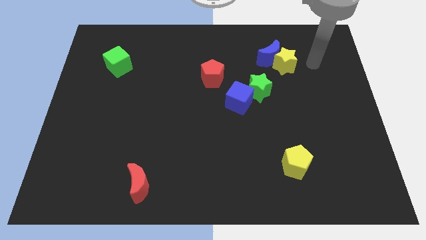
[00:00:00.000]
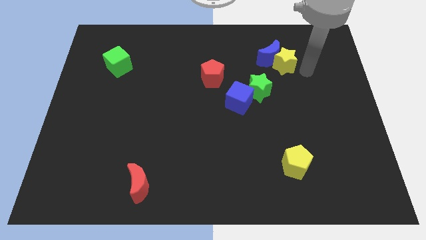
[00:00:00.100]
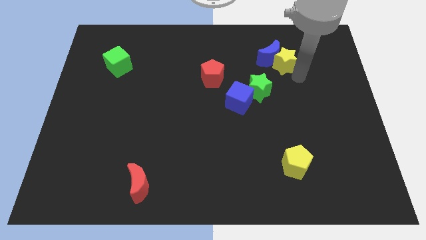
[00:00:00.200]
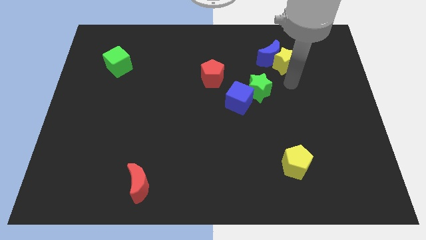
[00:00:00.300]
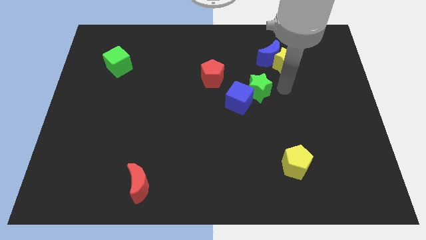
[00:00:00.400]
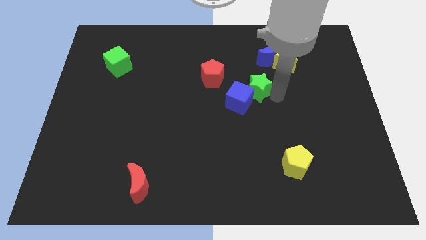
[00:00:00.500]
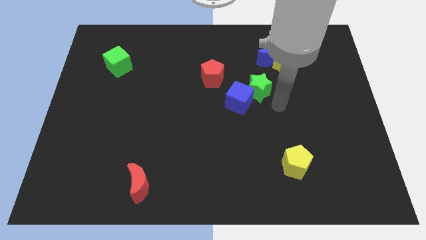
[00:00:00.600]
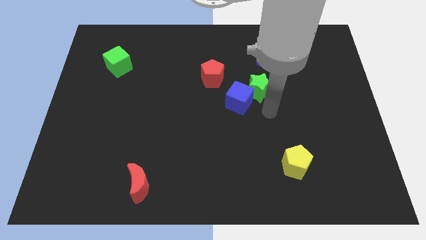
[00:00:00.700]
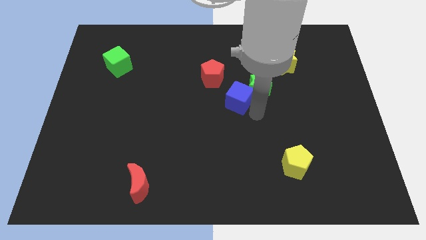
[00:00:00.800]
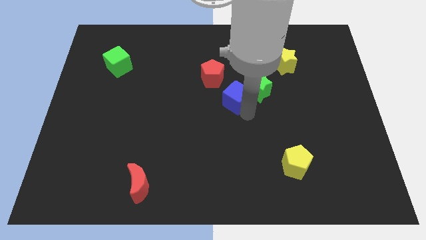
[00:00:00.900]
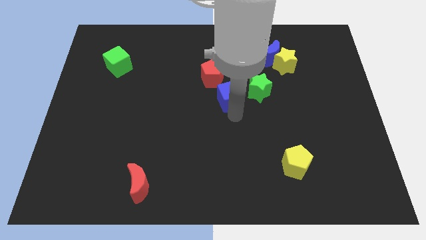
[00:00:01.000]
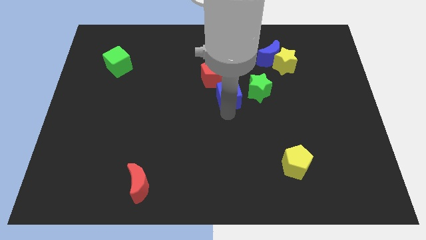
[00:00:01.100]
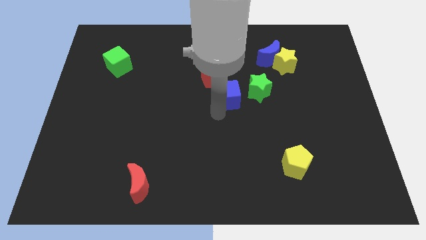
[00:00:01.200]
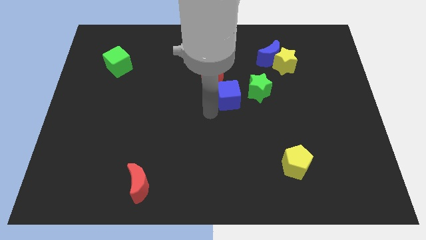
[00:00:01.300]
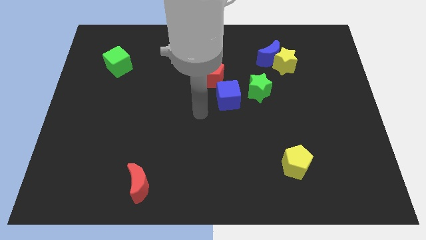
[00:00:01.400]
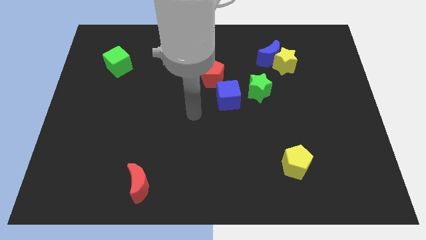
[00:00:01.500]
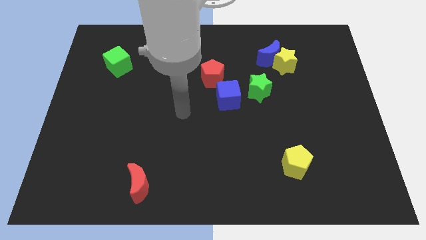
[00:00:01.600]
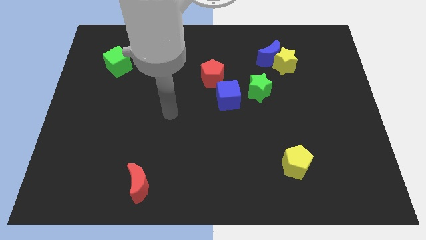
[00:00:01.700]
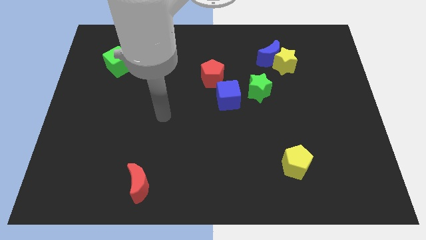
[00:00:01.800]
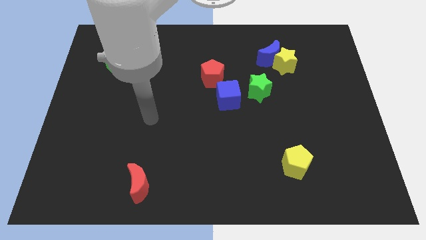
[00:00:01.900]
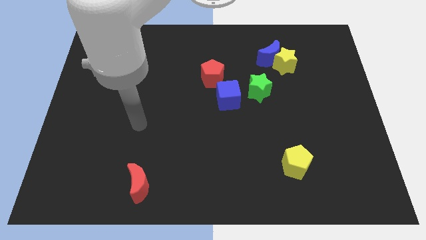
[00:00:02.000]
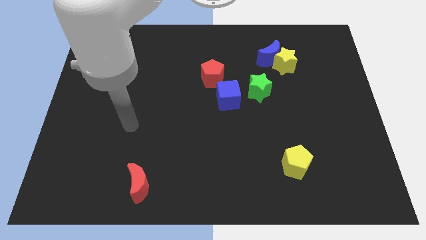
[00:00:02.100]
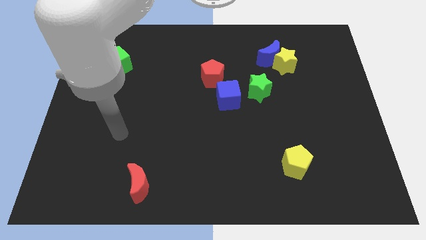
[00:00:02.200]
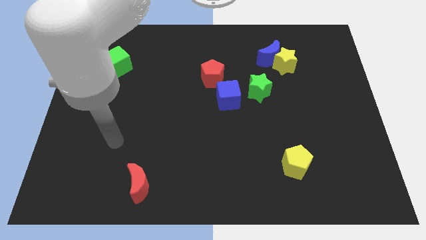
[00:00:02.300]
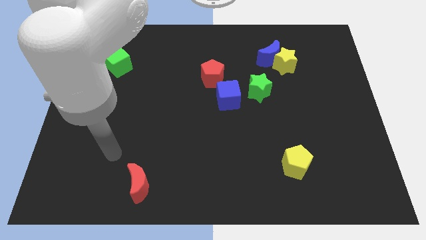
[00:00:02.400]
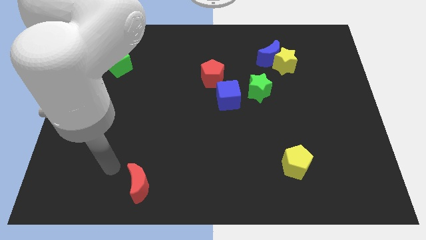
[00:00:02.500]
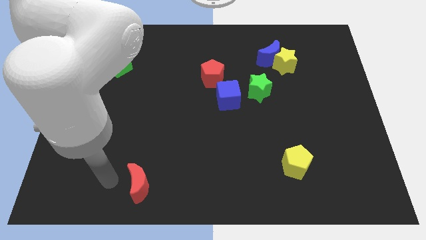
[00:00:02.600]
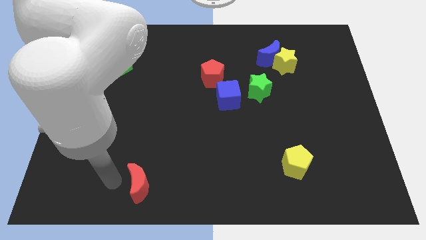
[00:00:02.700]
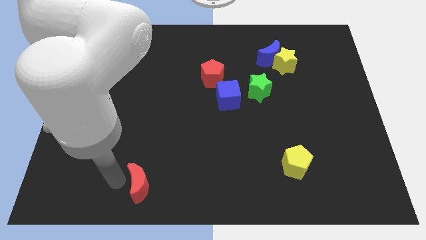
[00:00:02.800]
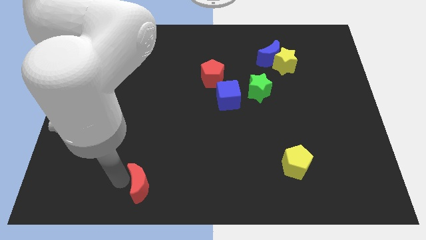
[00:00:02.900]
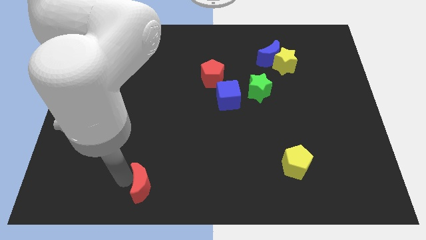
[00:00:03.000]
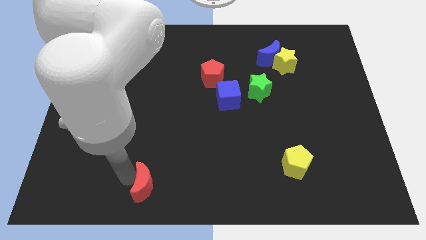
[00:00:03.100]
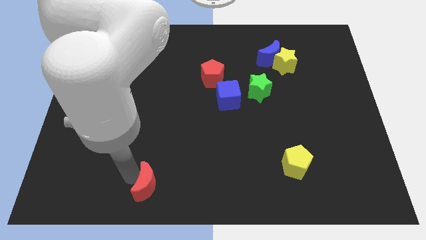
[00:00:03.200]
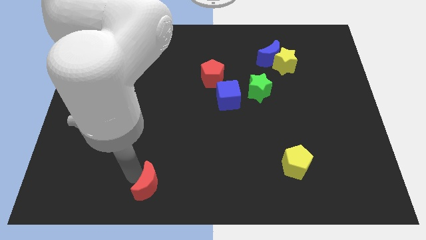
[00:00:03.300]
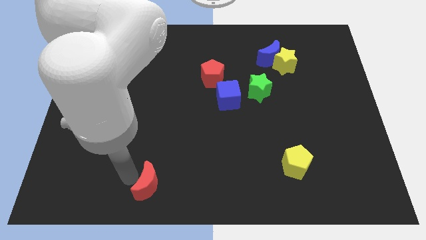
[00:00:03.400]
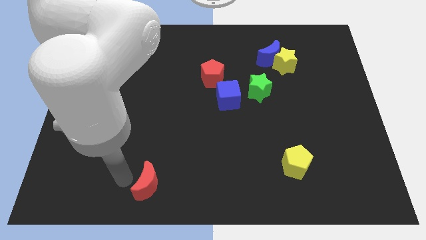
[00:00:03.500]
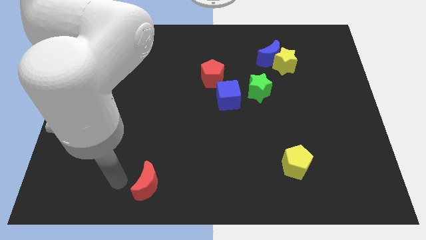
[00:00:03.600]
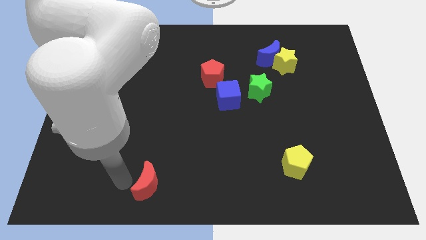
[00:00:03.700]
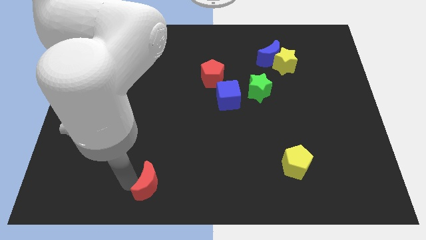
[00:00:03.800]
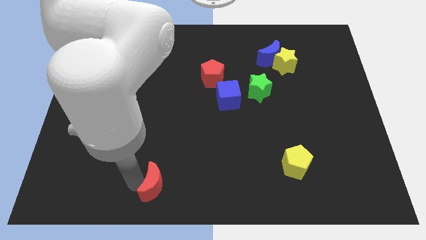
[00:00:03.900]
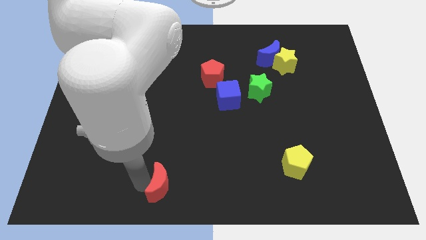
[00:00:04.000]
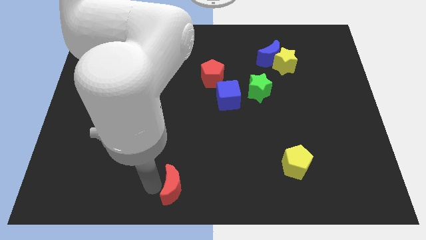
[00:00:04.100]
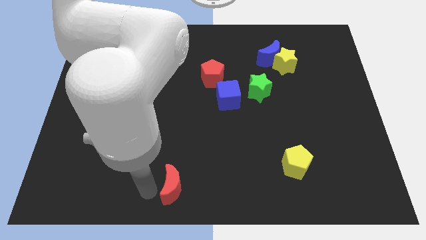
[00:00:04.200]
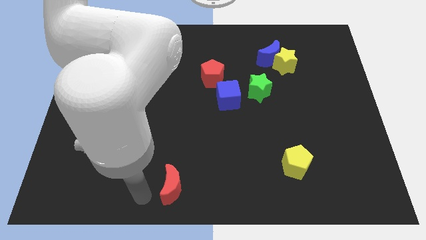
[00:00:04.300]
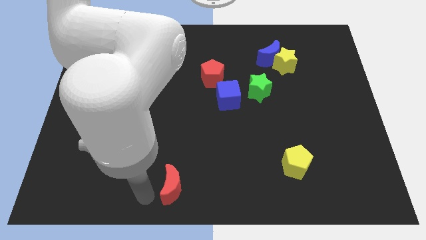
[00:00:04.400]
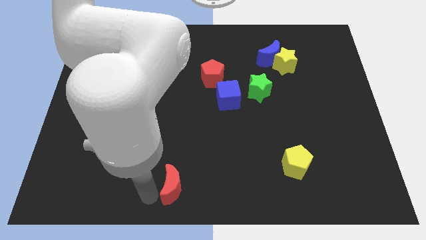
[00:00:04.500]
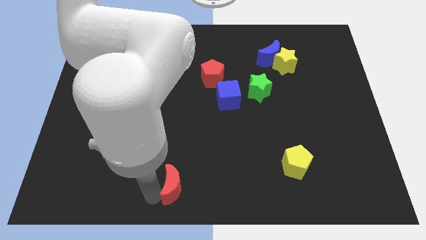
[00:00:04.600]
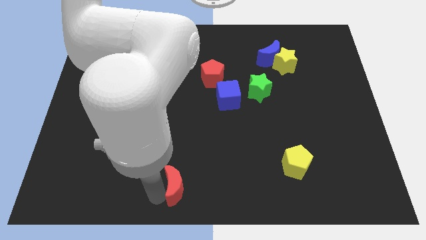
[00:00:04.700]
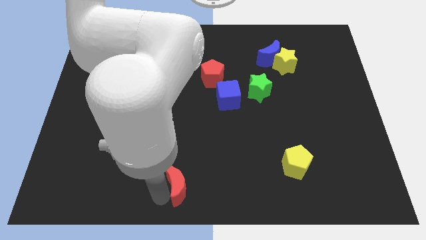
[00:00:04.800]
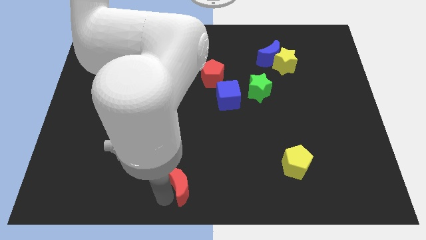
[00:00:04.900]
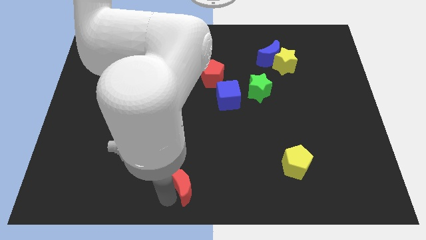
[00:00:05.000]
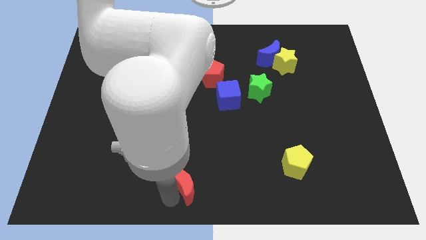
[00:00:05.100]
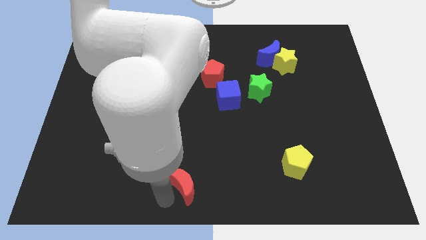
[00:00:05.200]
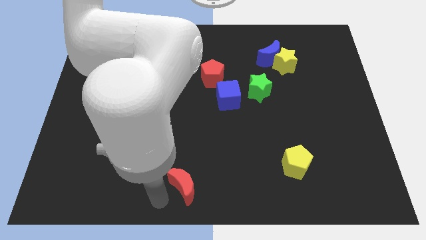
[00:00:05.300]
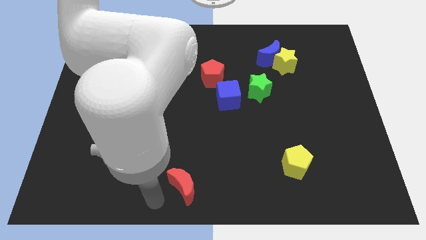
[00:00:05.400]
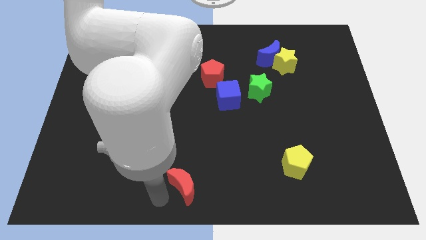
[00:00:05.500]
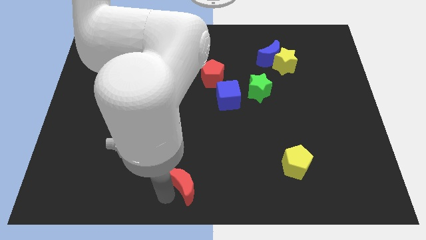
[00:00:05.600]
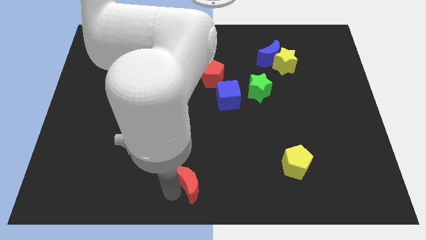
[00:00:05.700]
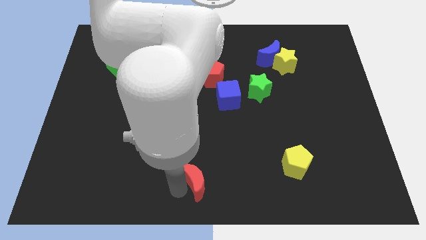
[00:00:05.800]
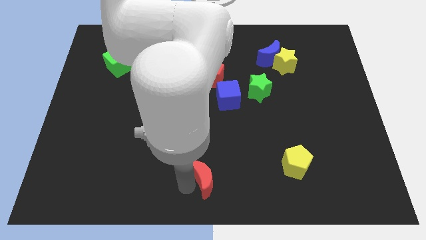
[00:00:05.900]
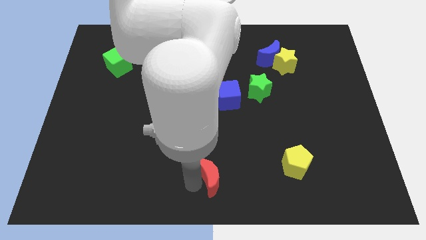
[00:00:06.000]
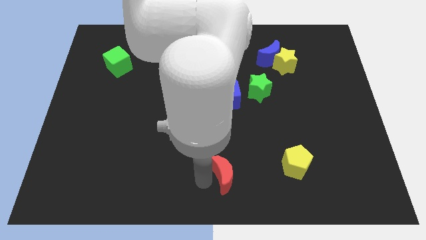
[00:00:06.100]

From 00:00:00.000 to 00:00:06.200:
move the red moon left of the yellow pentagon

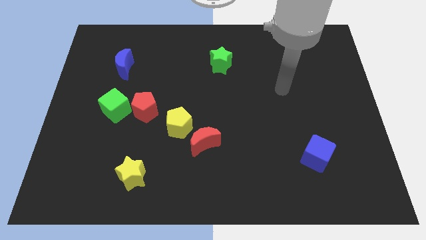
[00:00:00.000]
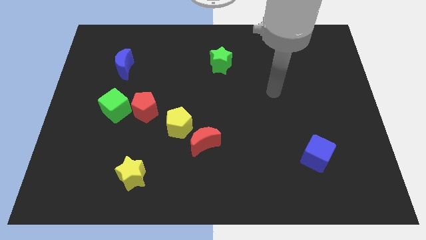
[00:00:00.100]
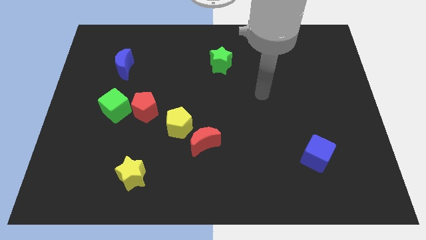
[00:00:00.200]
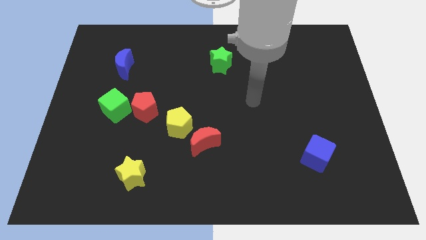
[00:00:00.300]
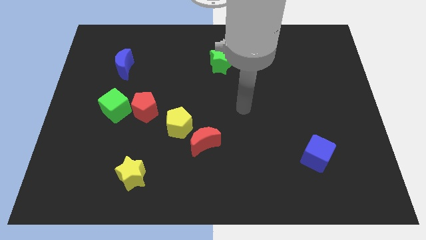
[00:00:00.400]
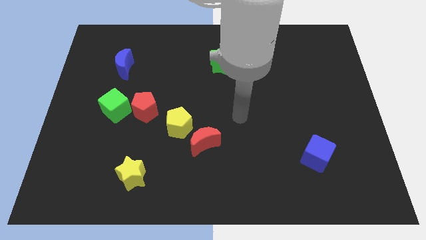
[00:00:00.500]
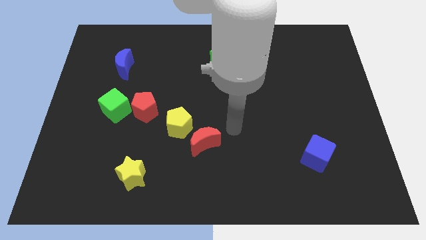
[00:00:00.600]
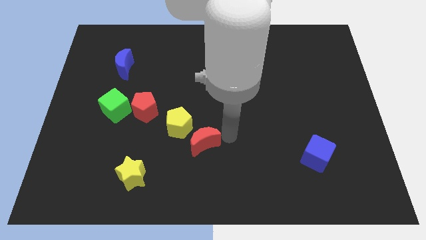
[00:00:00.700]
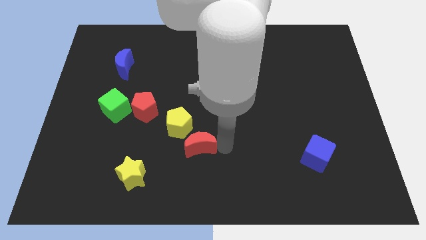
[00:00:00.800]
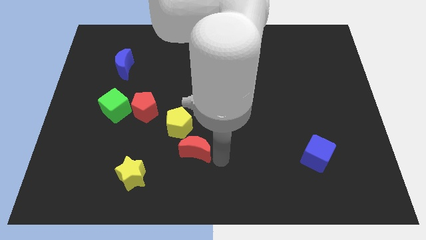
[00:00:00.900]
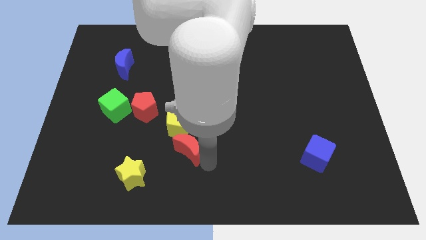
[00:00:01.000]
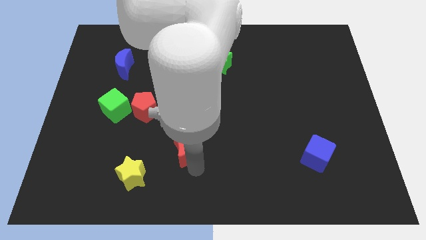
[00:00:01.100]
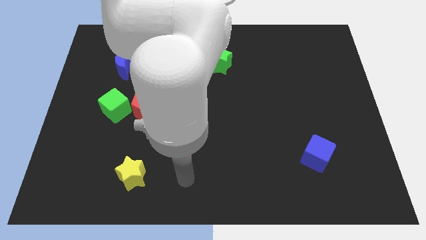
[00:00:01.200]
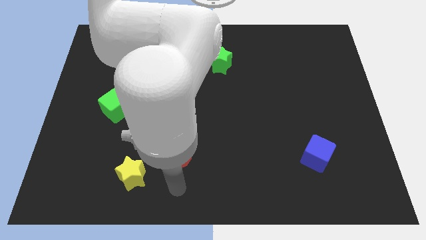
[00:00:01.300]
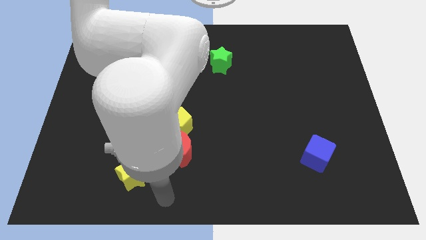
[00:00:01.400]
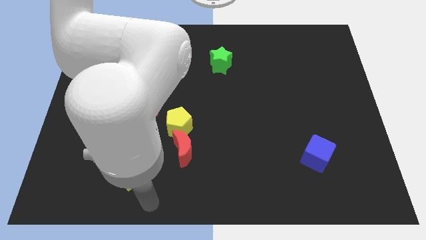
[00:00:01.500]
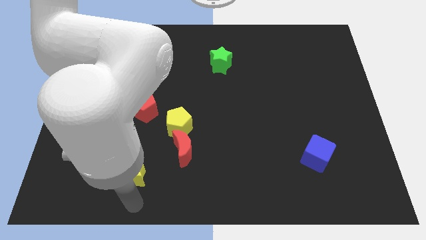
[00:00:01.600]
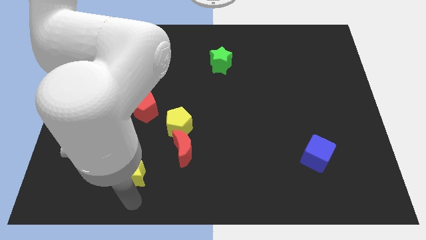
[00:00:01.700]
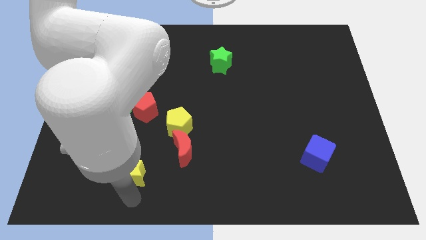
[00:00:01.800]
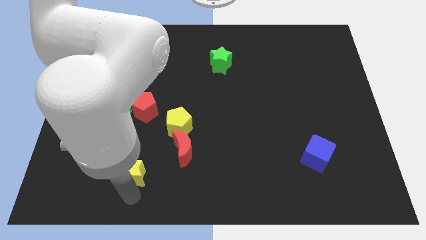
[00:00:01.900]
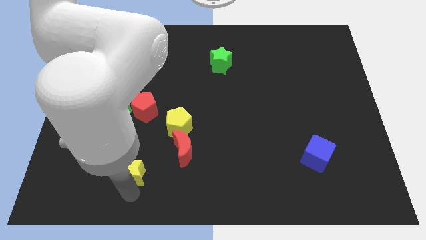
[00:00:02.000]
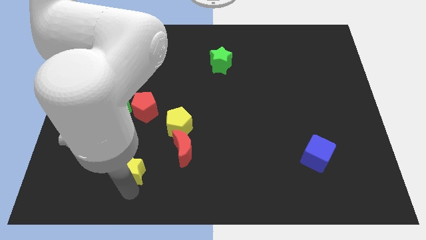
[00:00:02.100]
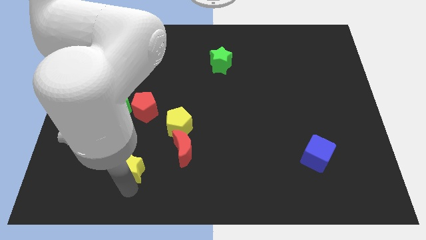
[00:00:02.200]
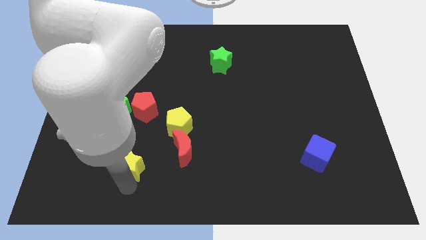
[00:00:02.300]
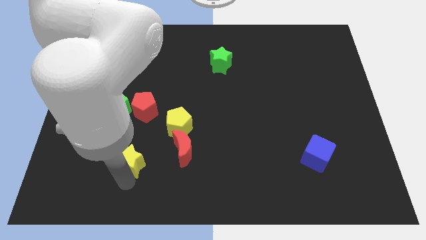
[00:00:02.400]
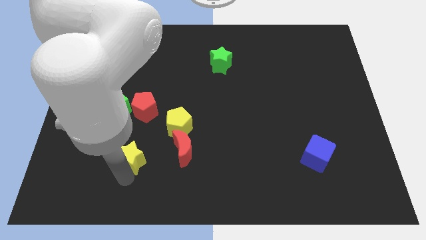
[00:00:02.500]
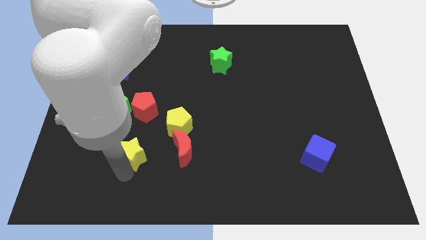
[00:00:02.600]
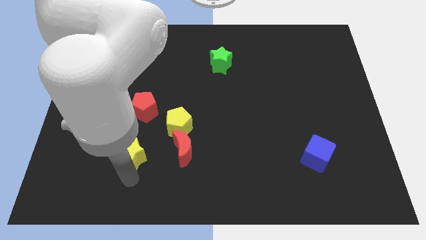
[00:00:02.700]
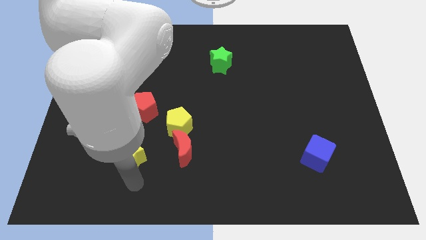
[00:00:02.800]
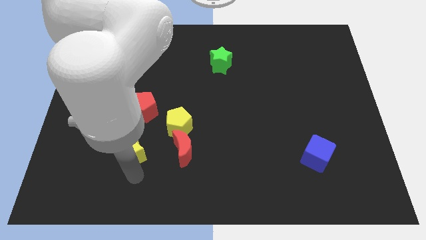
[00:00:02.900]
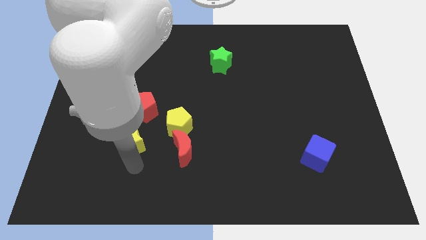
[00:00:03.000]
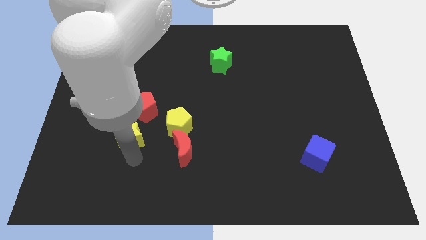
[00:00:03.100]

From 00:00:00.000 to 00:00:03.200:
slide the yellow star left of the yellow pentagon
